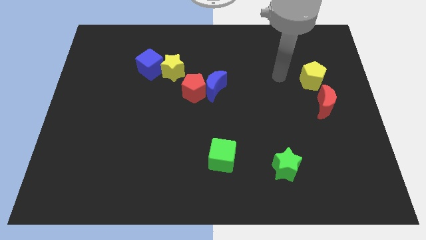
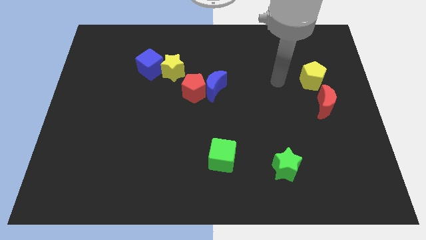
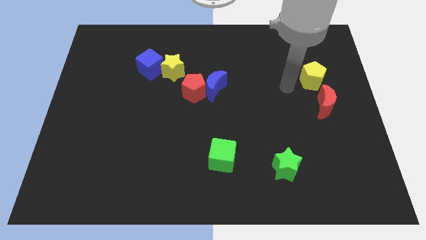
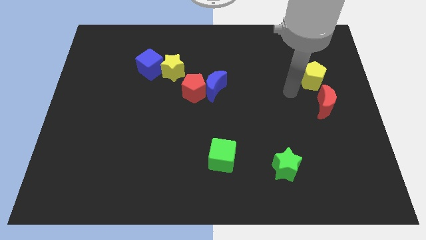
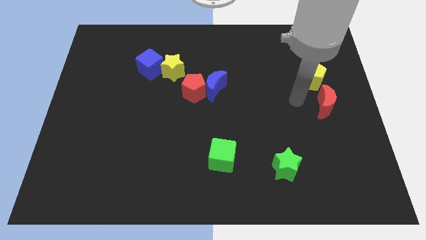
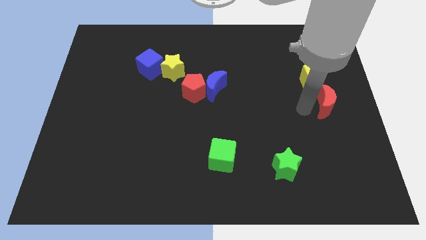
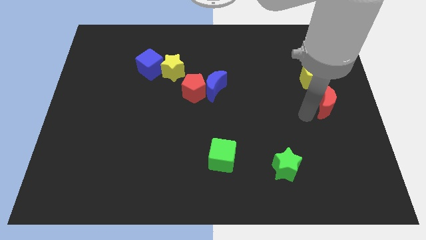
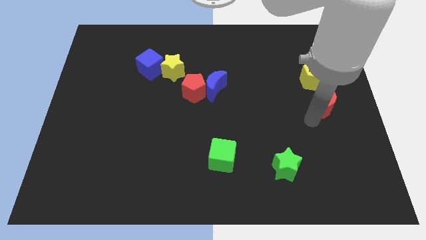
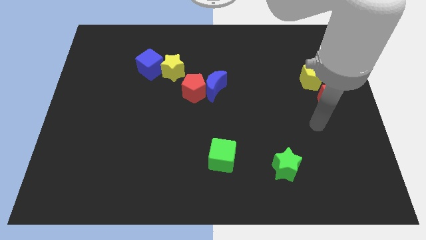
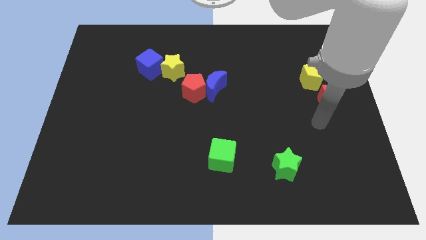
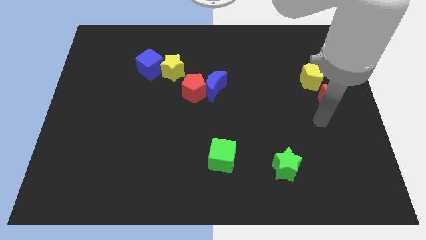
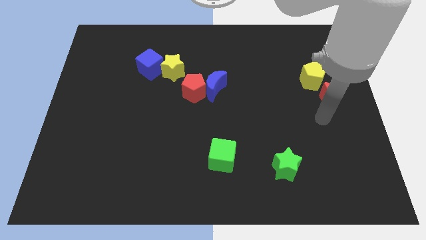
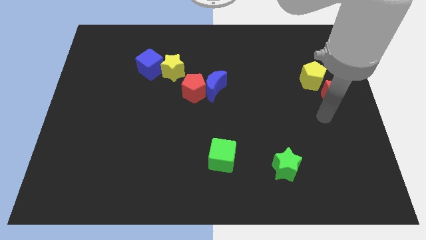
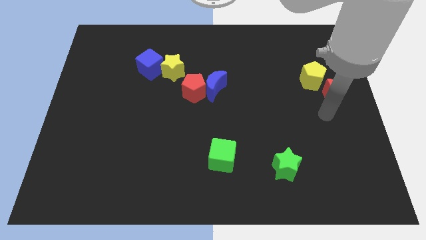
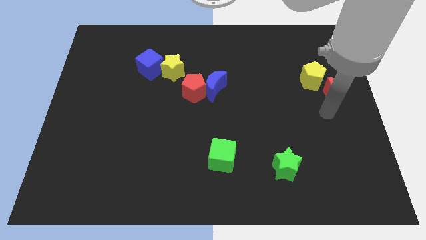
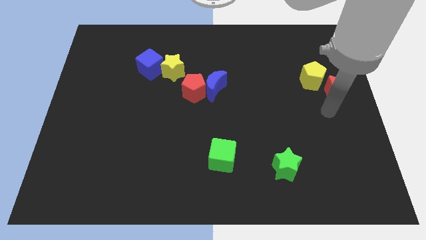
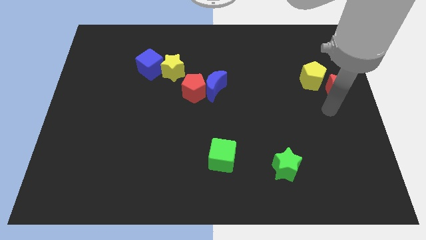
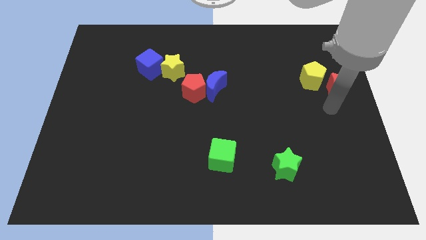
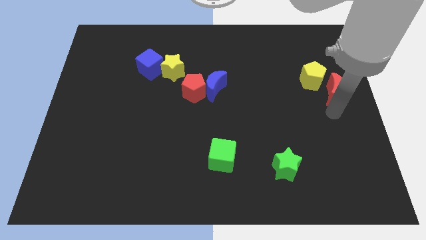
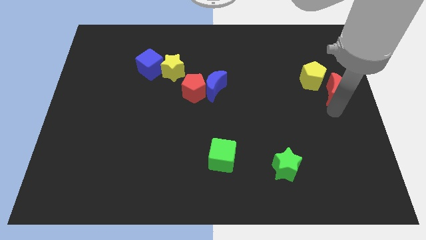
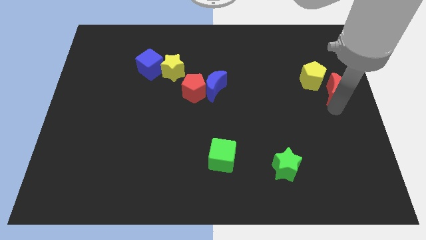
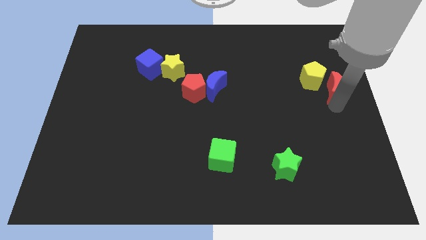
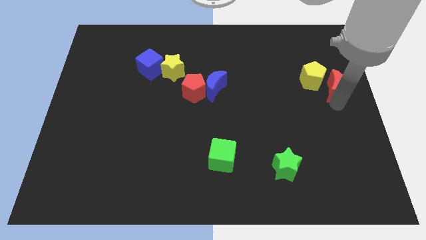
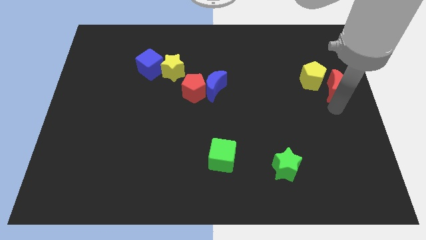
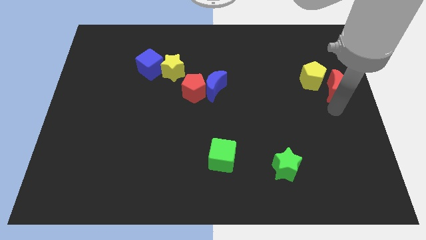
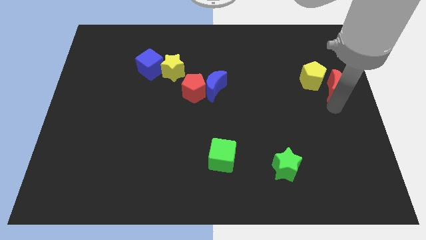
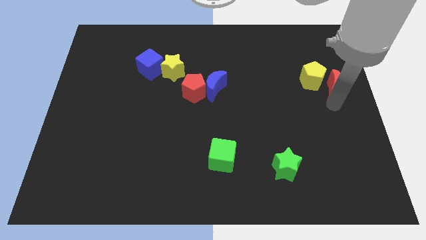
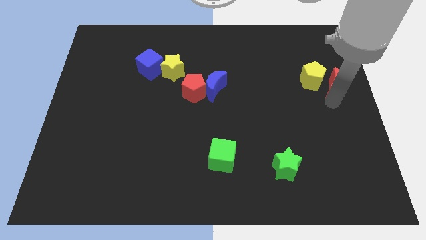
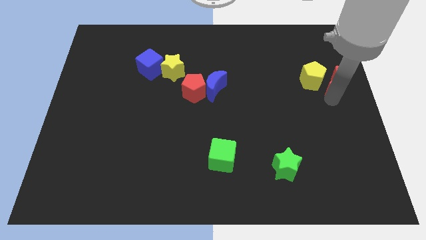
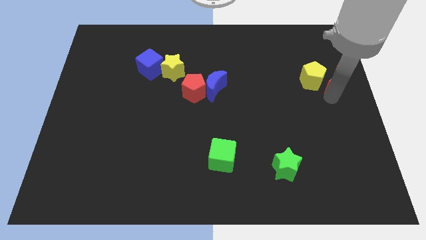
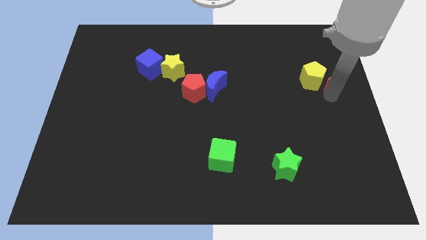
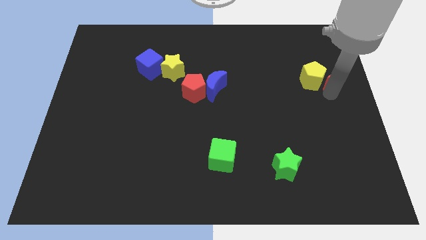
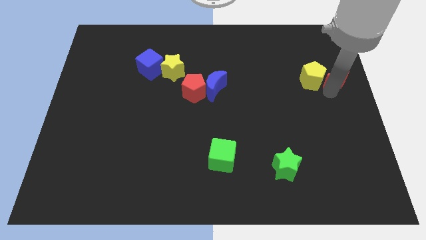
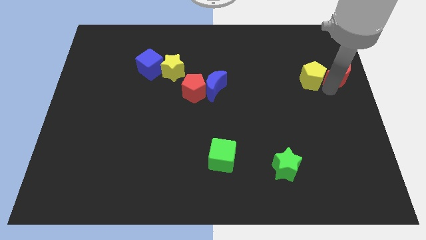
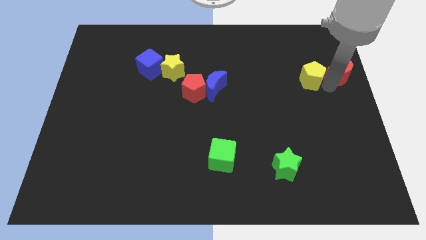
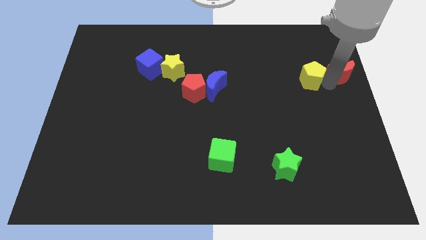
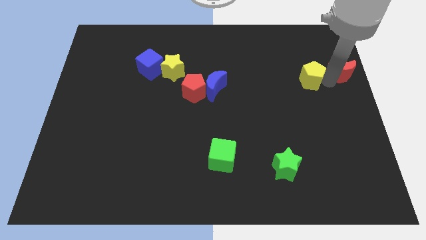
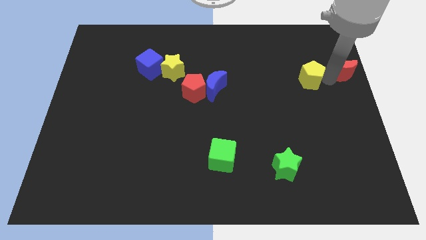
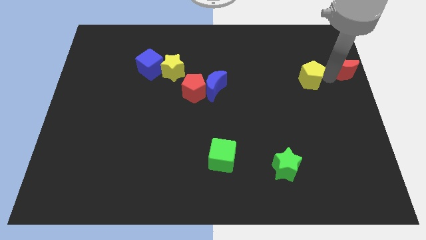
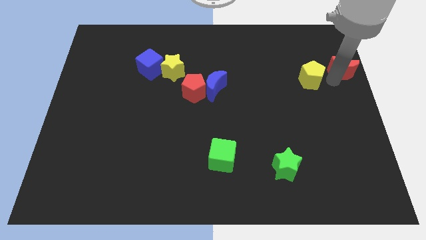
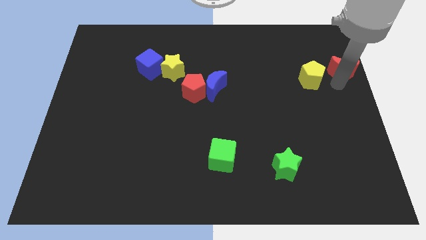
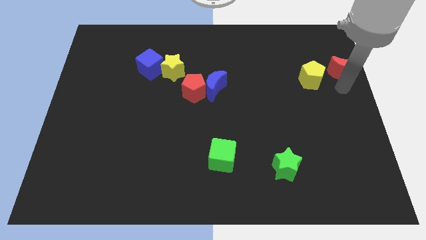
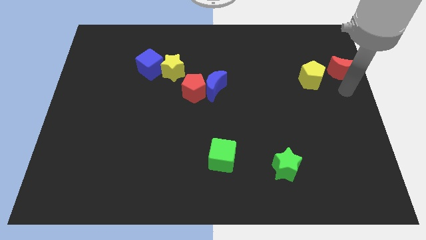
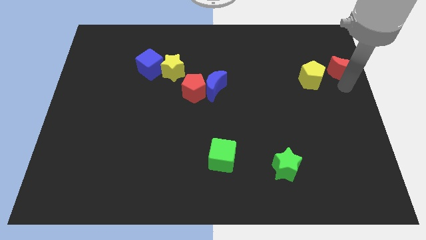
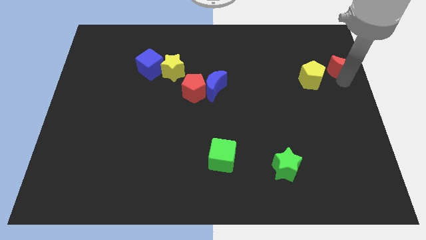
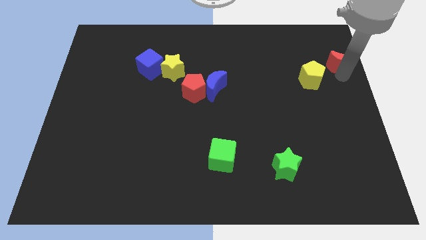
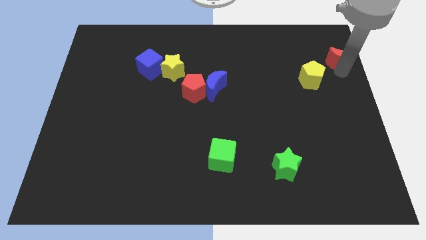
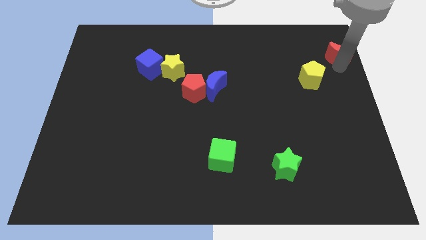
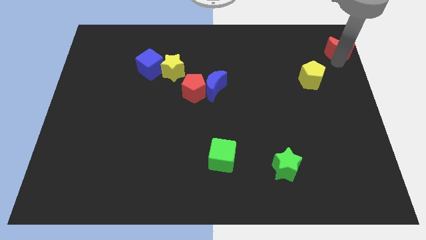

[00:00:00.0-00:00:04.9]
push the red moon to the top right of the board

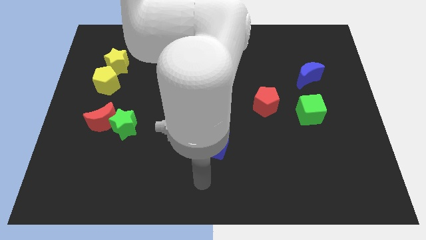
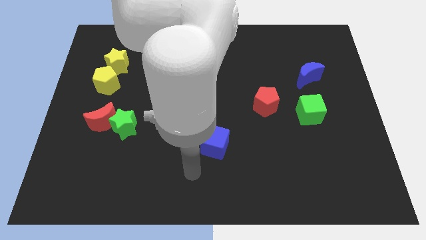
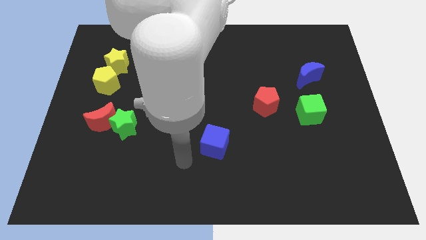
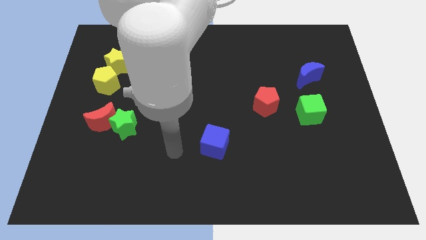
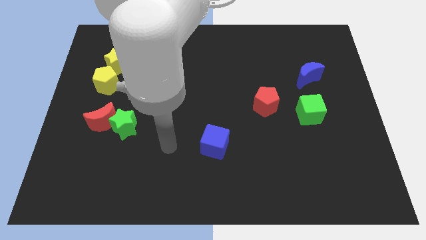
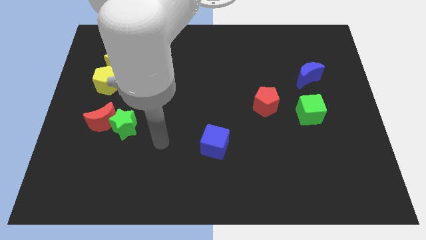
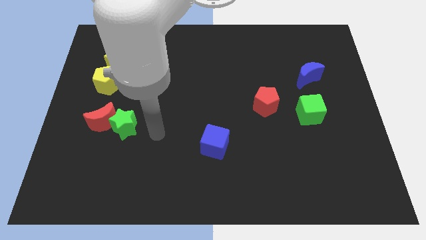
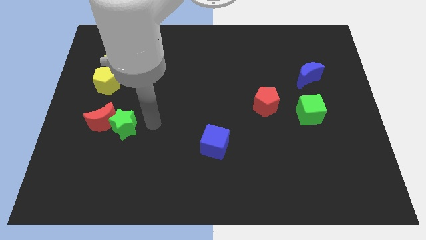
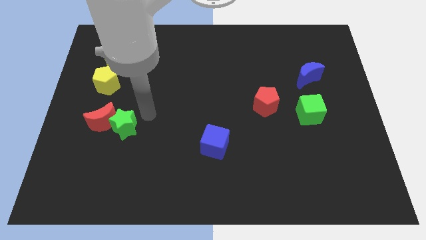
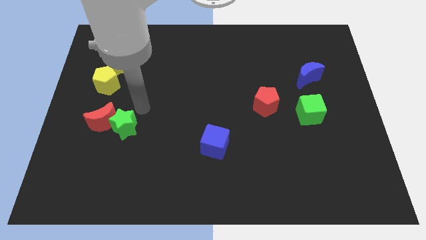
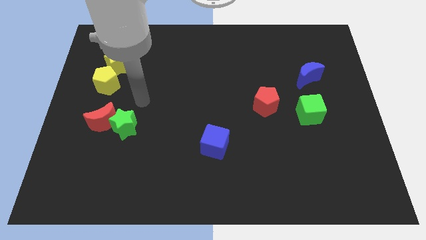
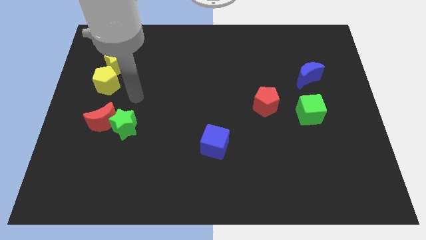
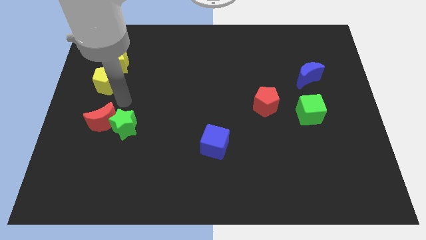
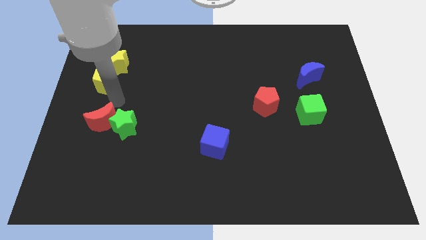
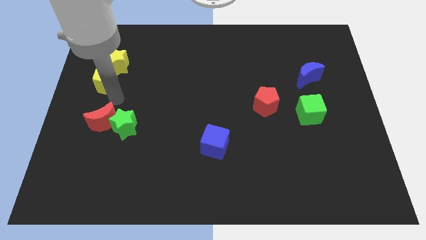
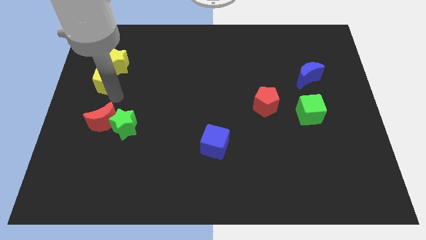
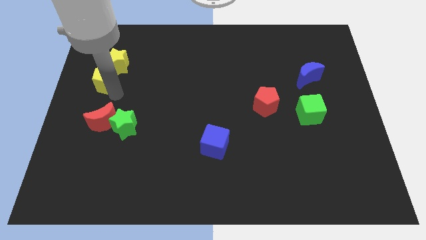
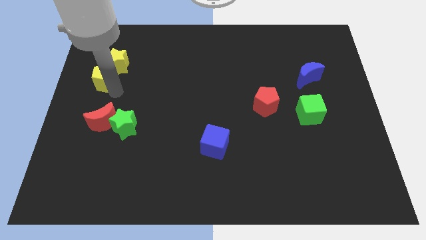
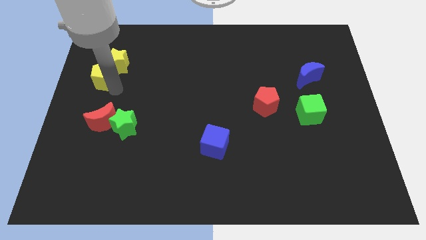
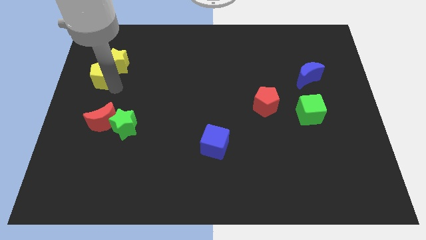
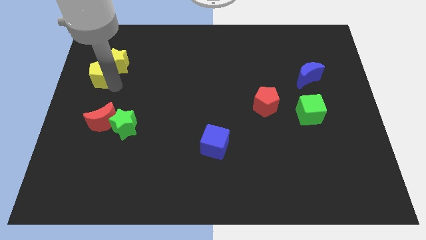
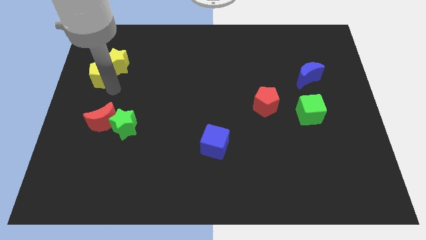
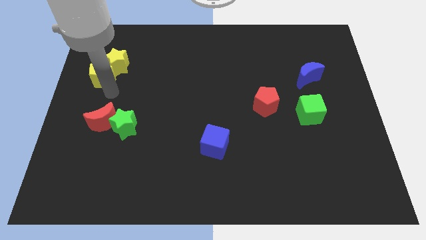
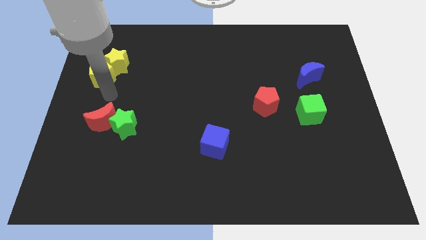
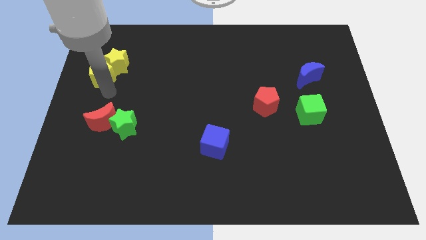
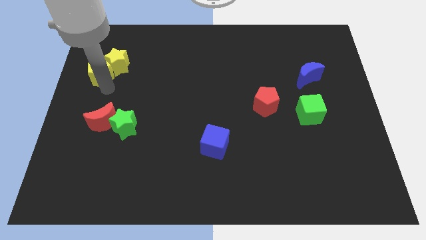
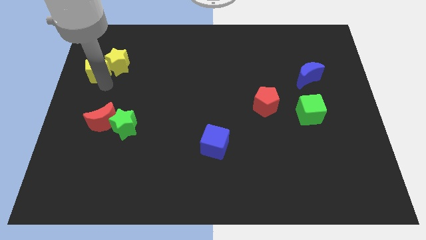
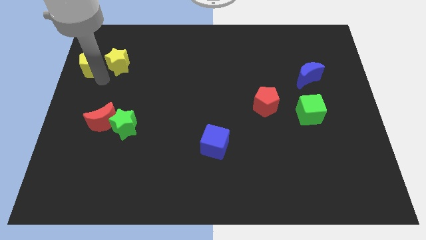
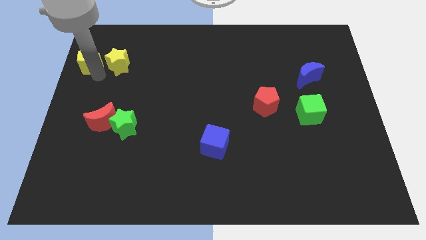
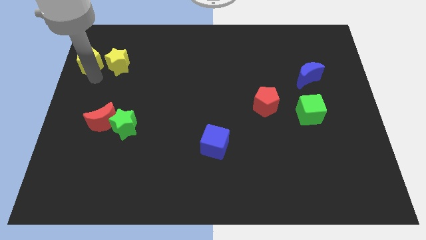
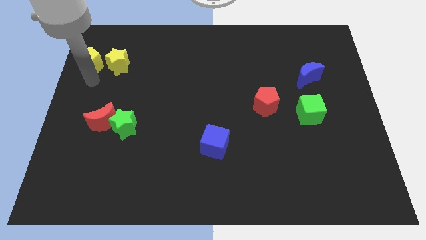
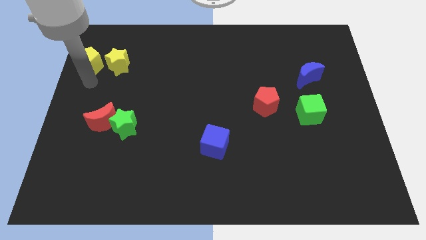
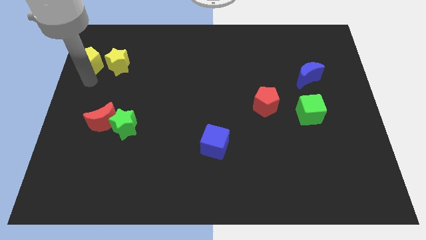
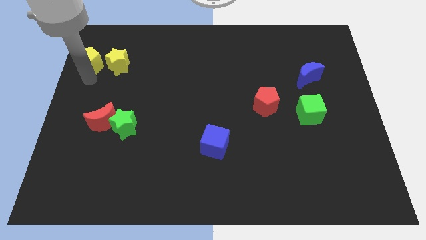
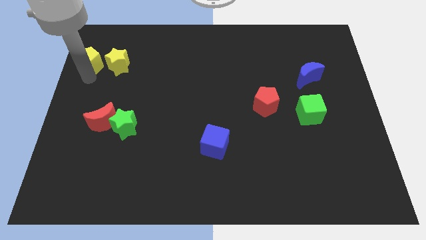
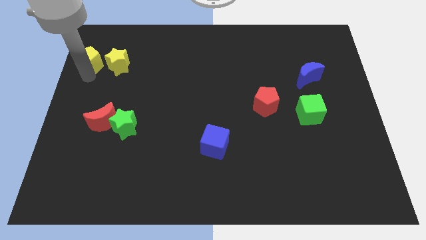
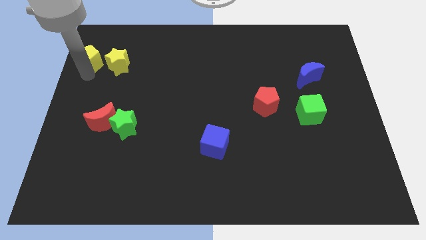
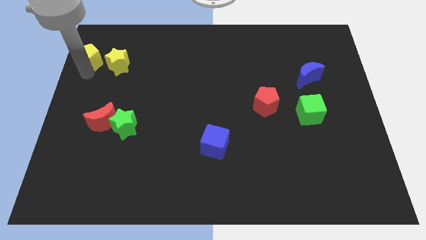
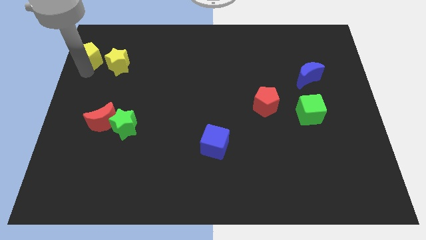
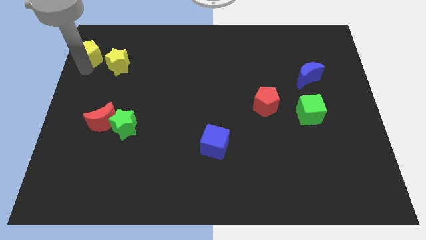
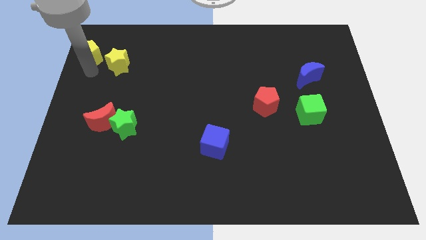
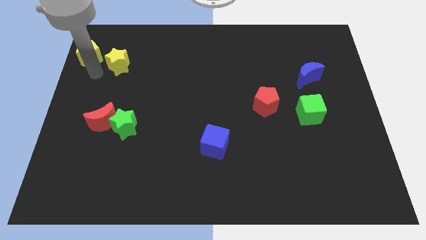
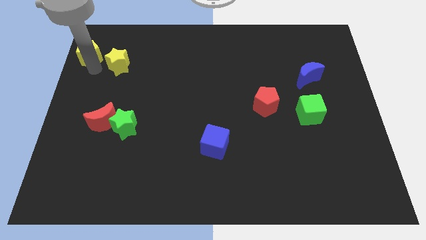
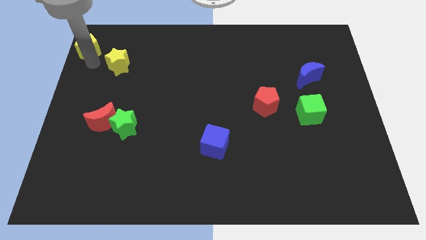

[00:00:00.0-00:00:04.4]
slide the yellow pentagon to the top left
